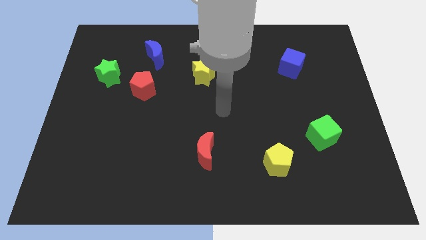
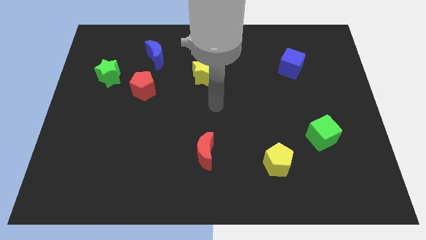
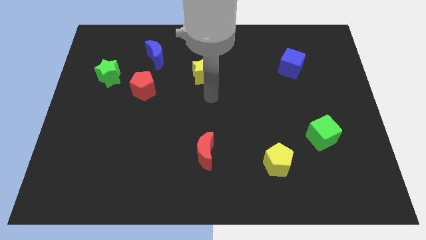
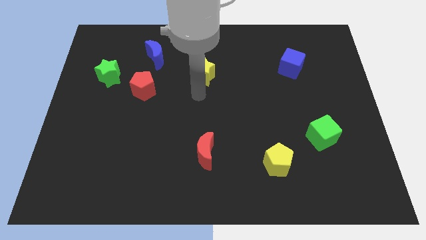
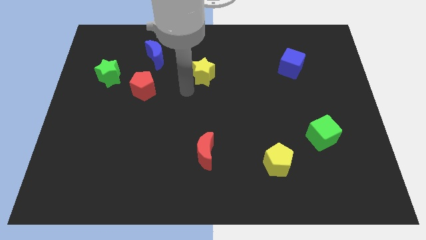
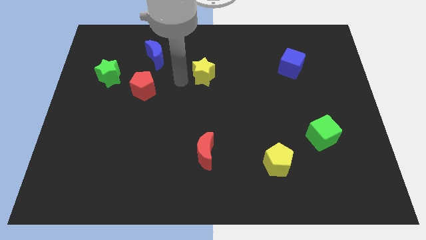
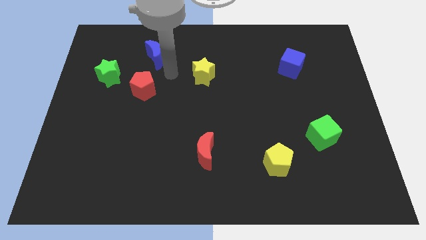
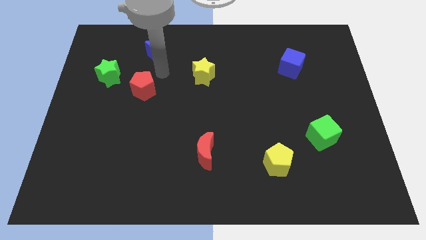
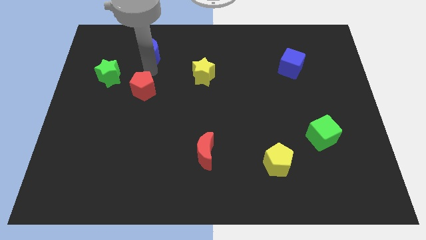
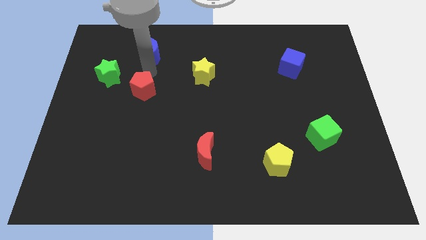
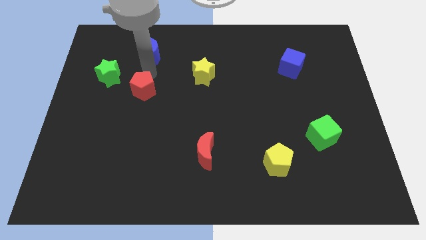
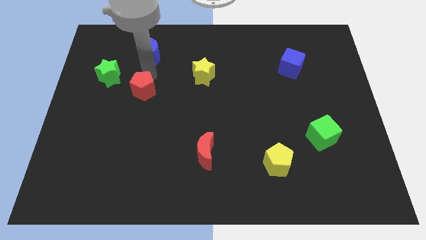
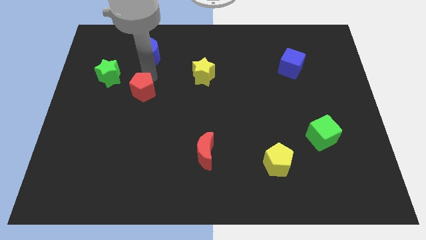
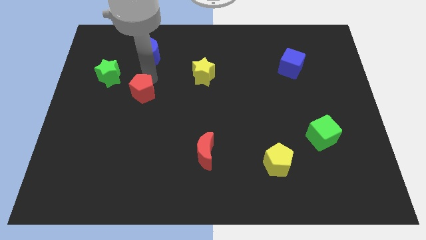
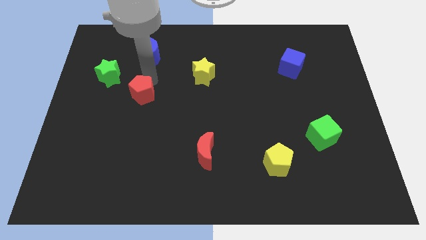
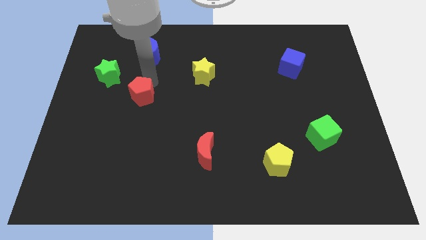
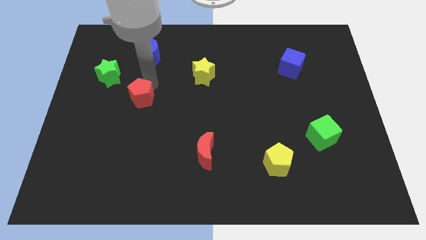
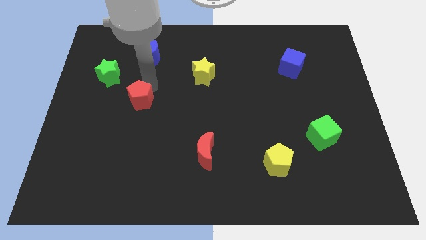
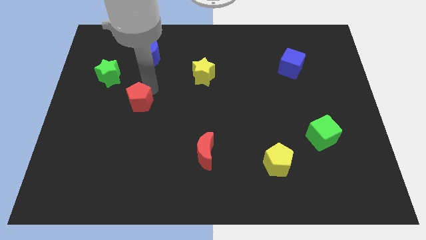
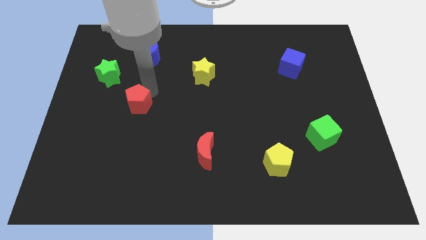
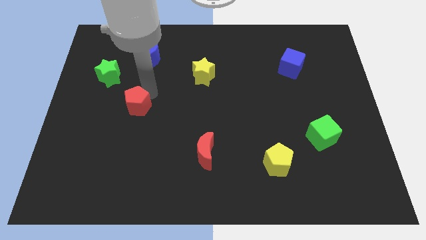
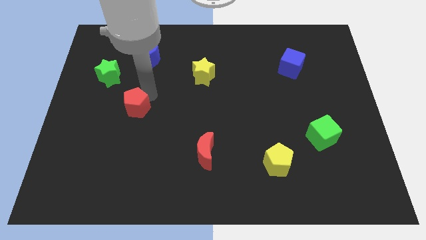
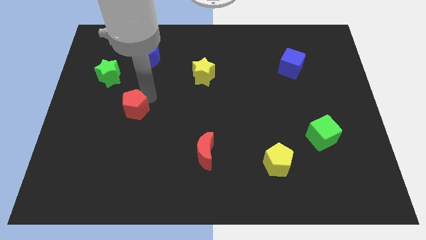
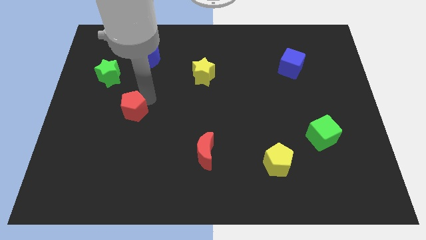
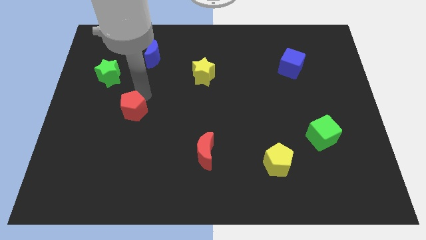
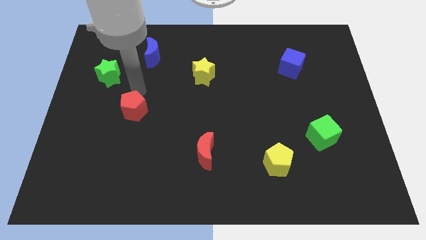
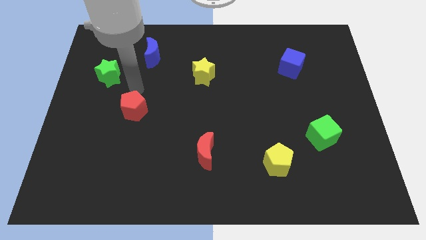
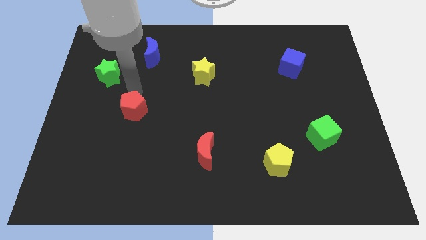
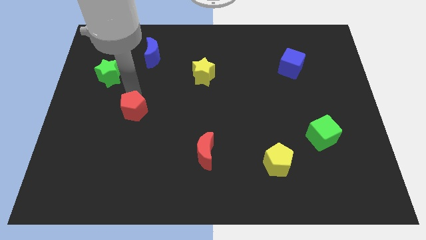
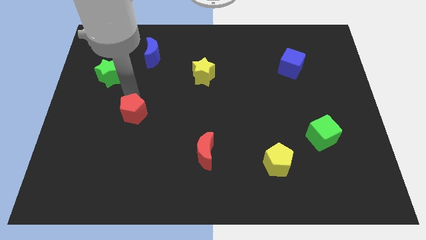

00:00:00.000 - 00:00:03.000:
move the red pentagon somewhat downwards

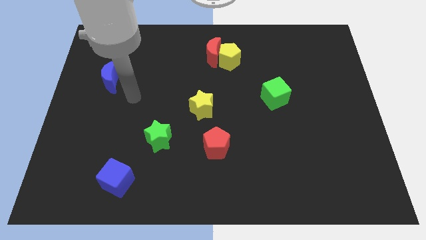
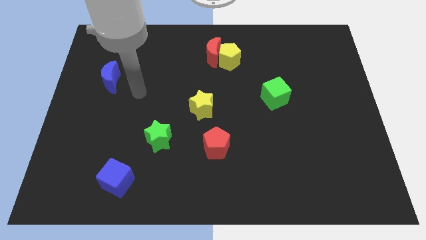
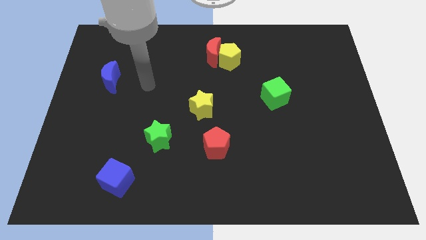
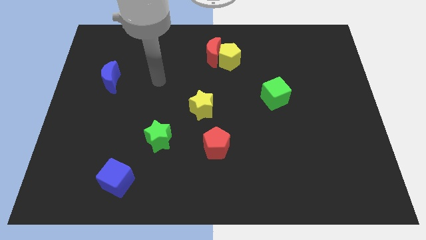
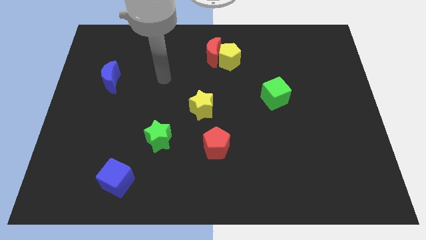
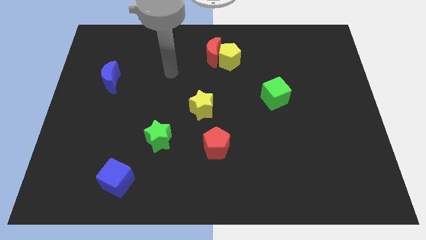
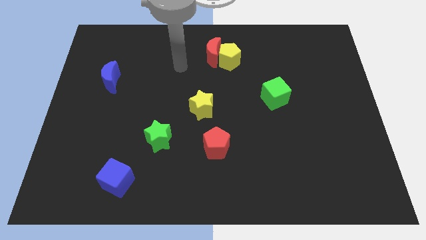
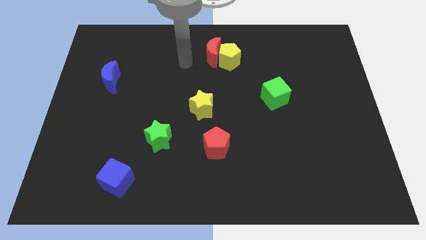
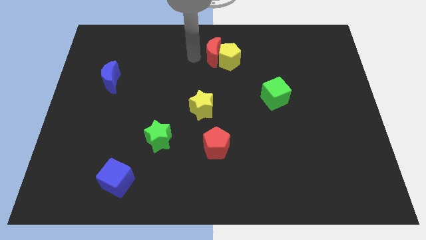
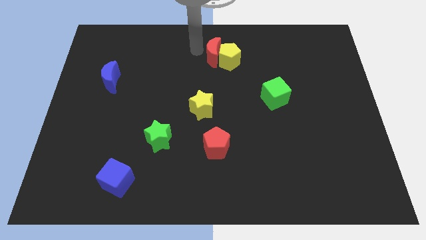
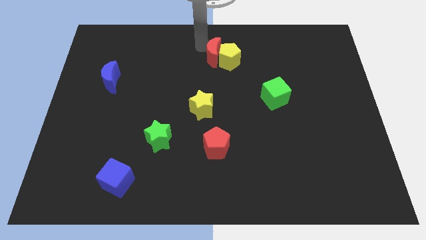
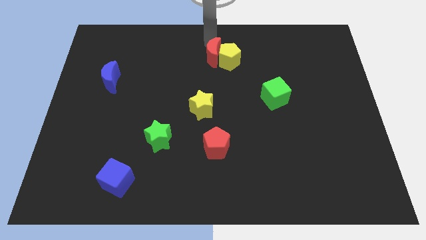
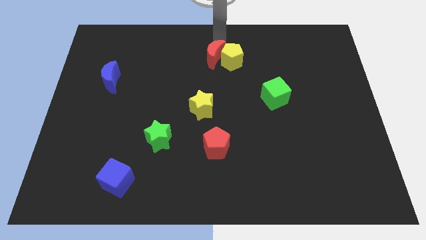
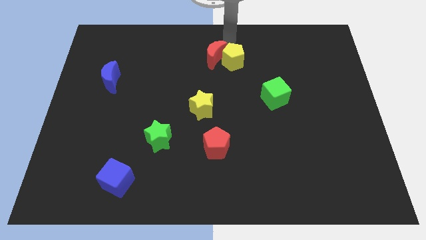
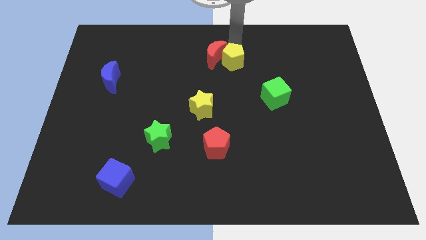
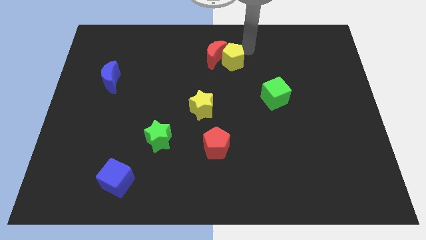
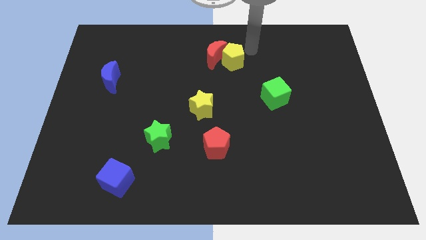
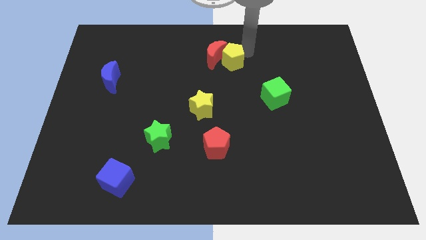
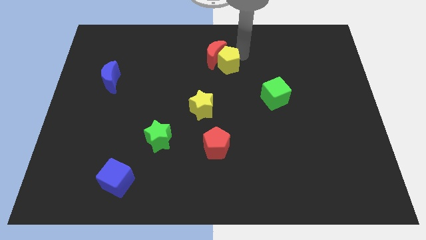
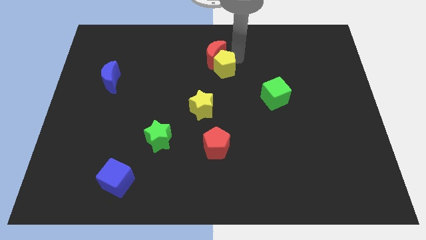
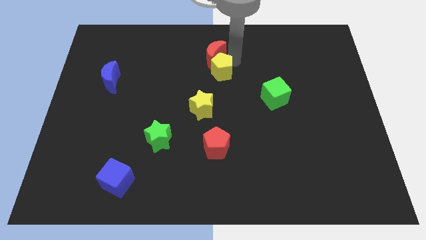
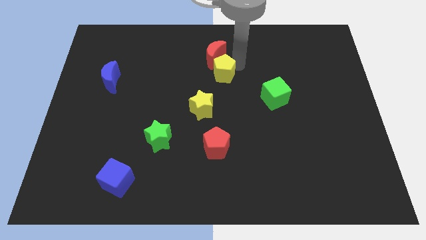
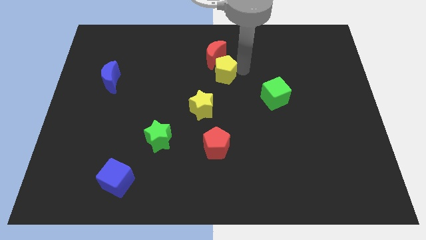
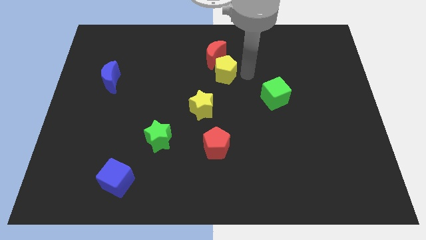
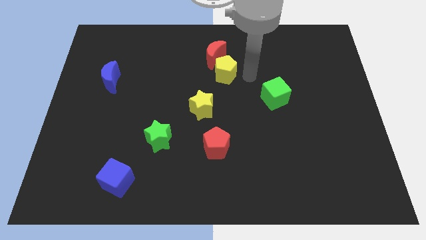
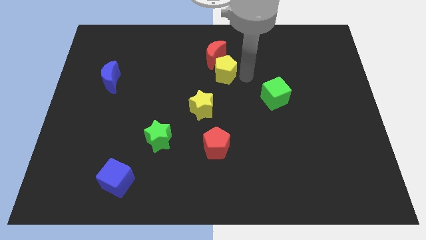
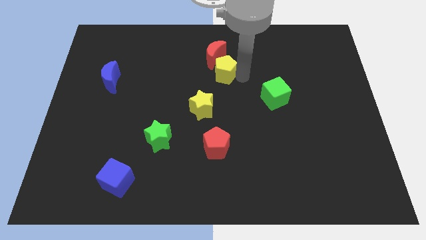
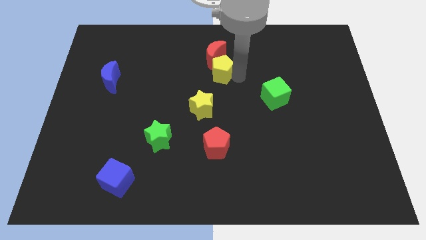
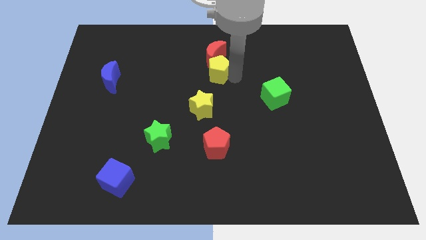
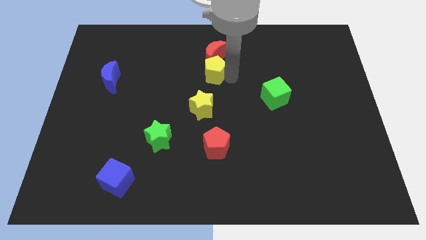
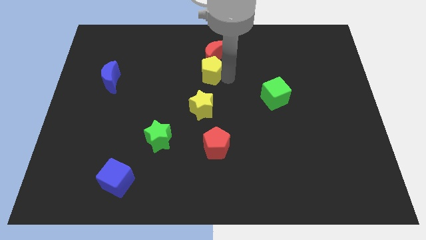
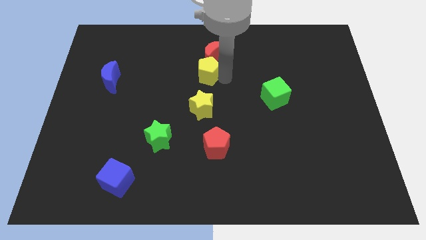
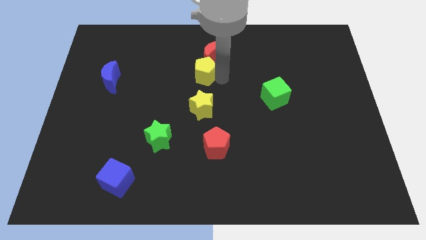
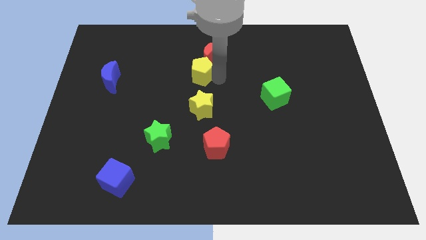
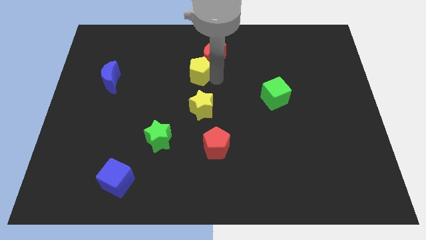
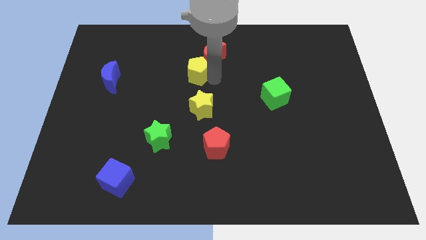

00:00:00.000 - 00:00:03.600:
slightly move the yellow pentagon to the left

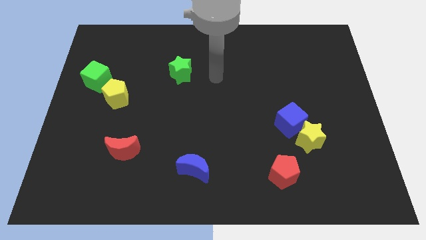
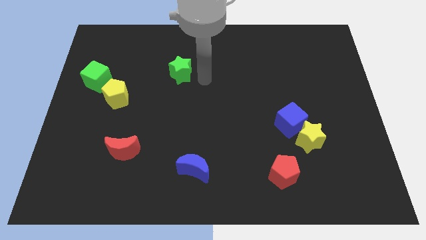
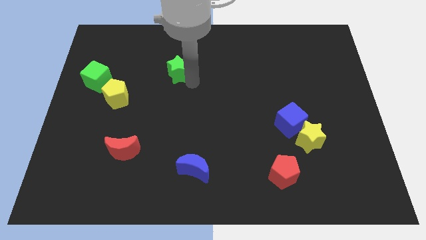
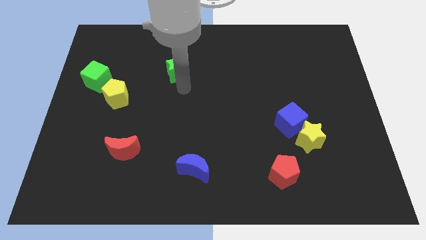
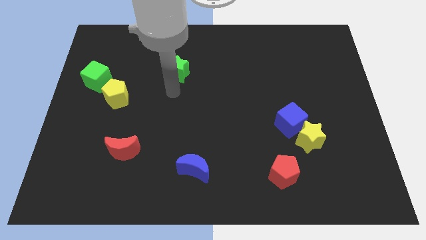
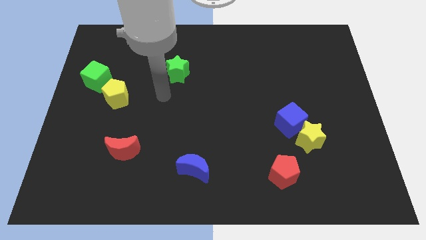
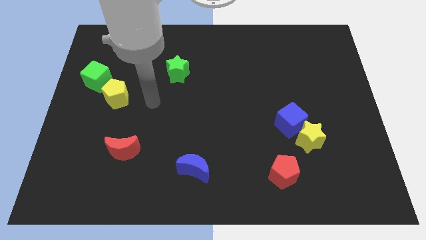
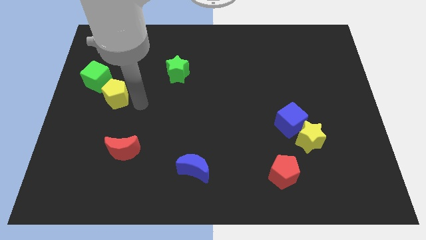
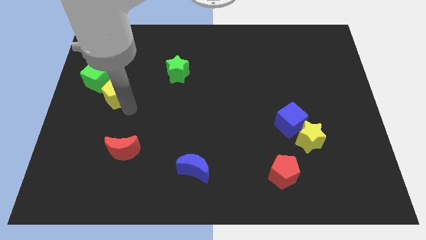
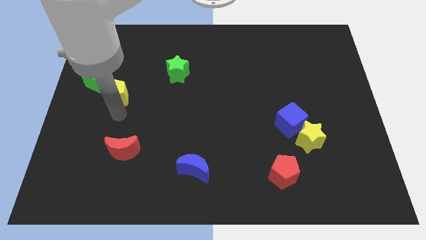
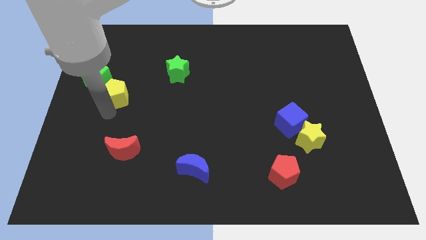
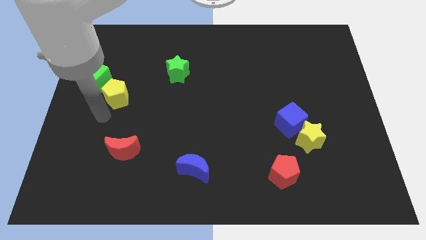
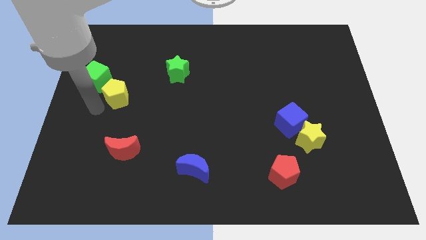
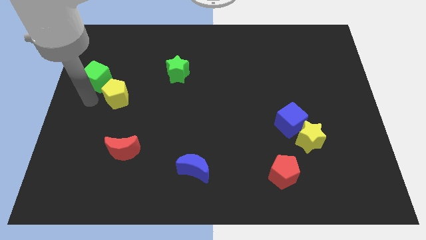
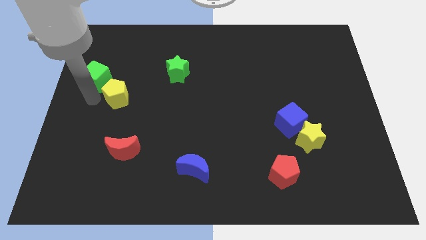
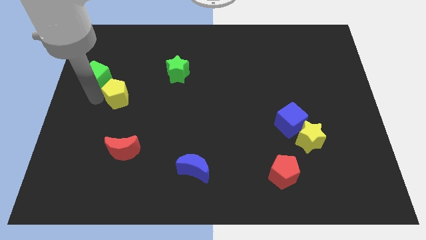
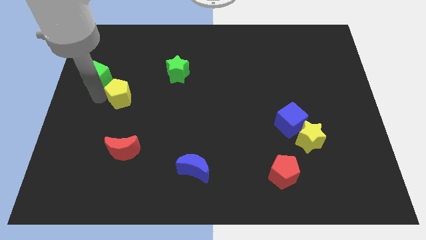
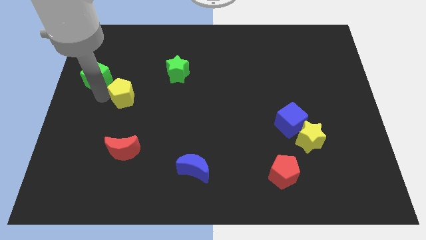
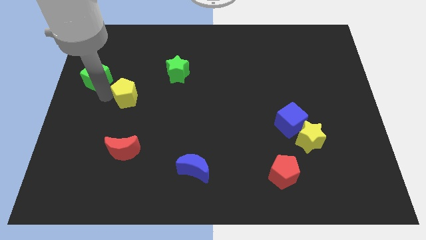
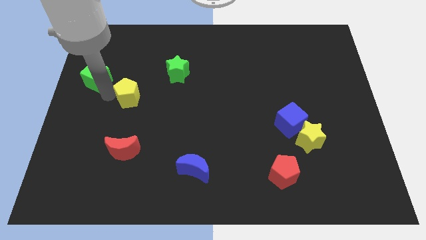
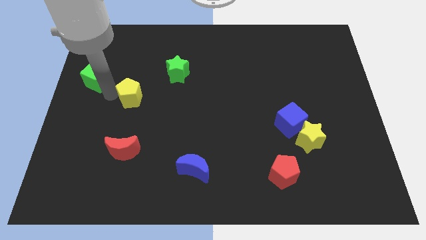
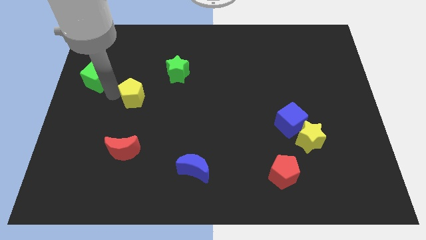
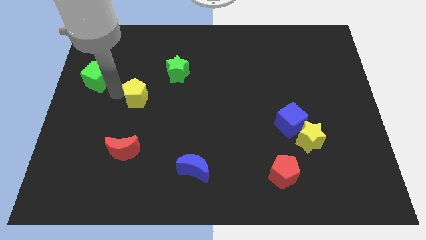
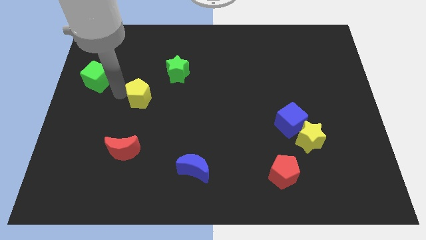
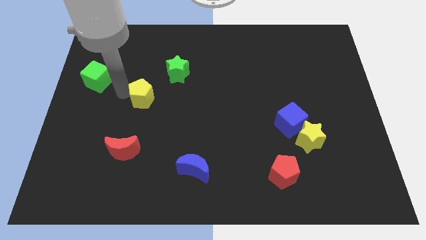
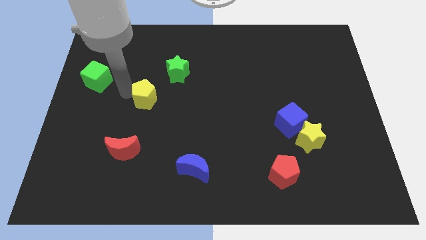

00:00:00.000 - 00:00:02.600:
slightly move the yellow pentagon right
